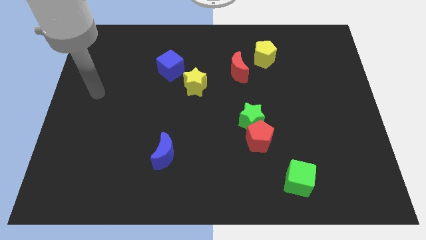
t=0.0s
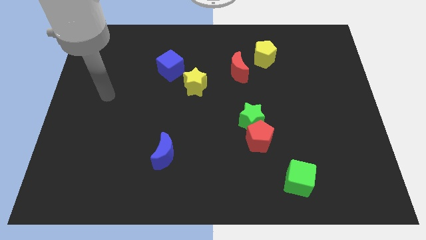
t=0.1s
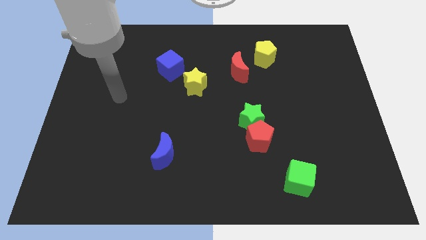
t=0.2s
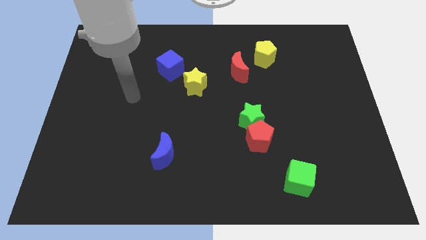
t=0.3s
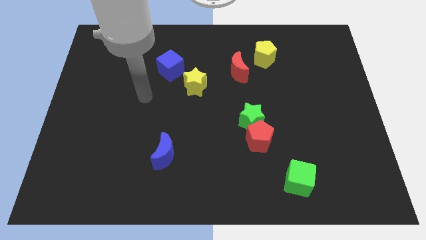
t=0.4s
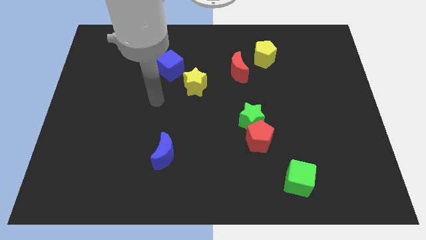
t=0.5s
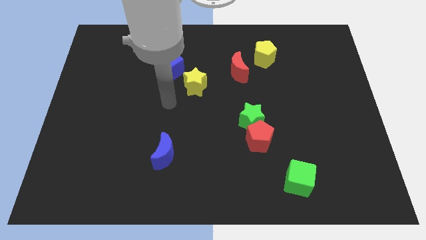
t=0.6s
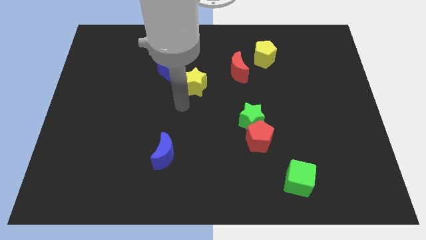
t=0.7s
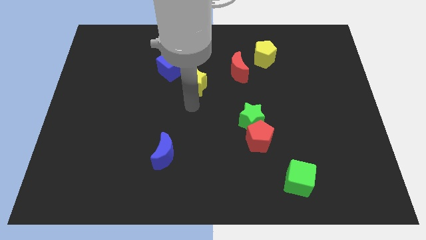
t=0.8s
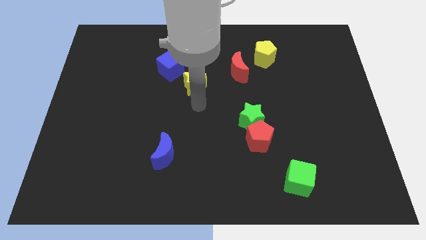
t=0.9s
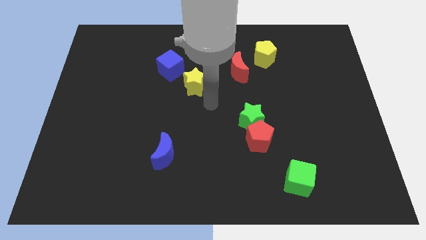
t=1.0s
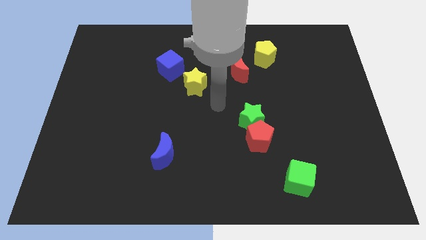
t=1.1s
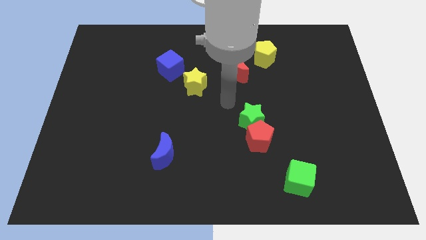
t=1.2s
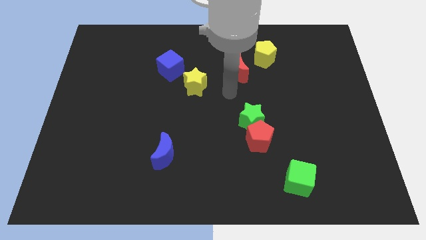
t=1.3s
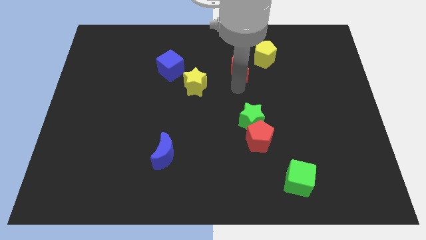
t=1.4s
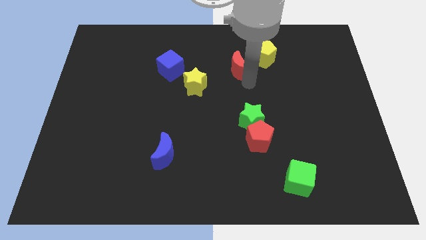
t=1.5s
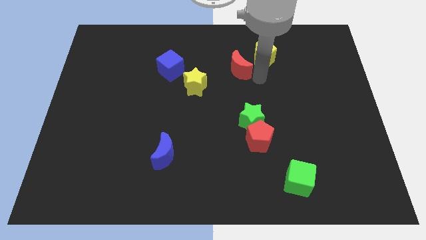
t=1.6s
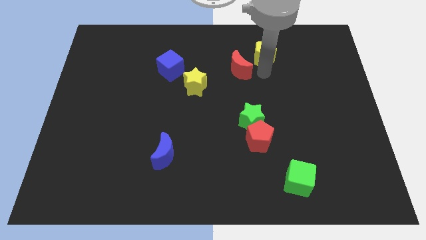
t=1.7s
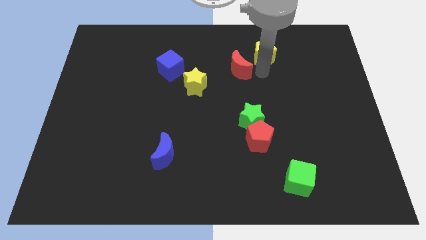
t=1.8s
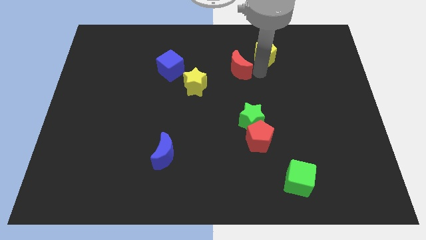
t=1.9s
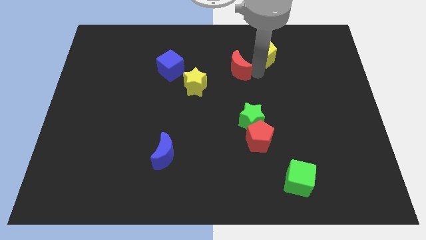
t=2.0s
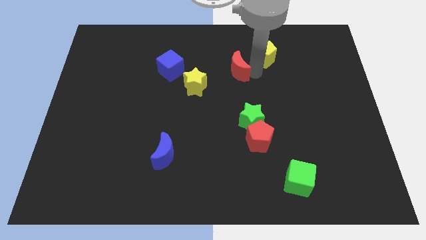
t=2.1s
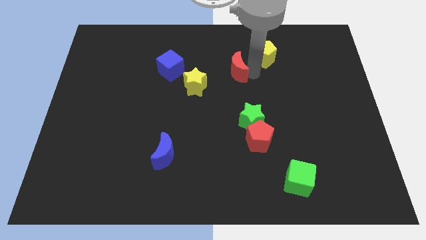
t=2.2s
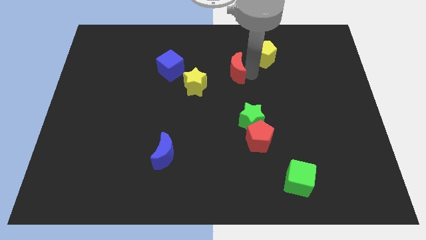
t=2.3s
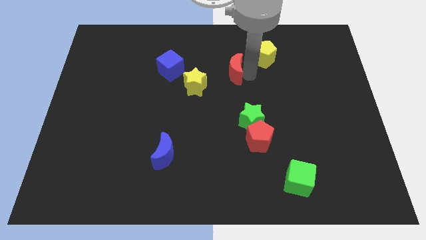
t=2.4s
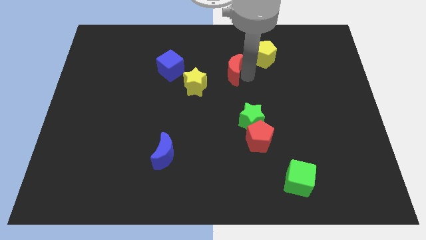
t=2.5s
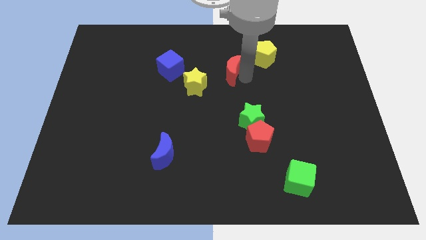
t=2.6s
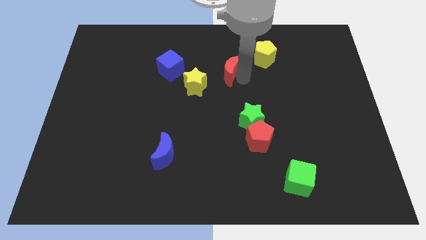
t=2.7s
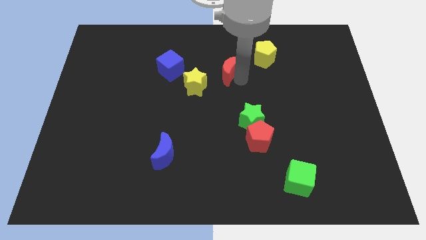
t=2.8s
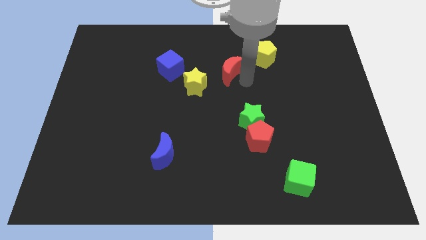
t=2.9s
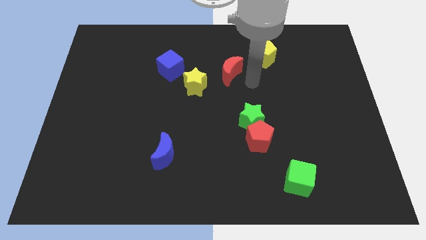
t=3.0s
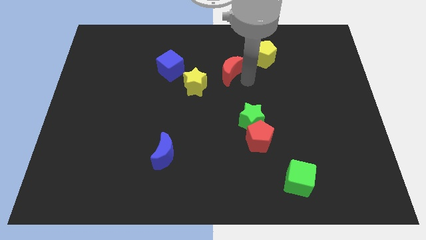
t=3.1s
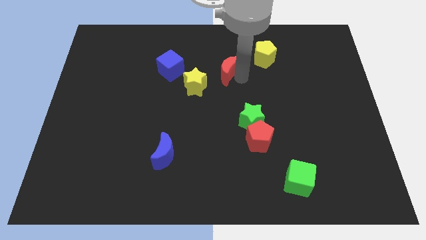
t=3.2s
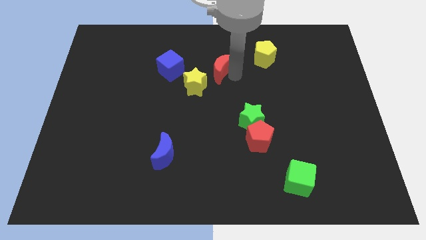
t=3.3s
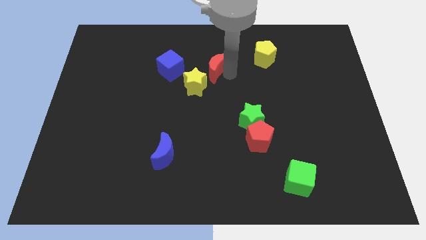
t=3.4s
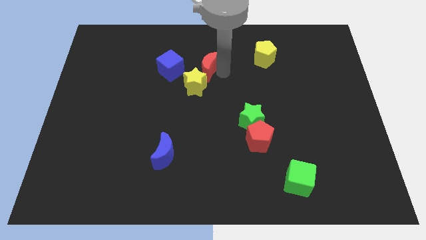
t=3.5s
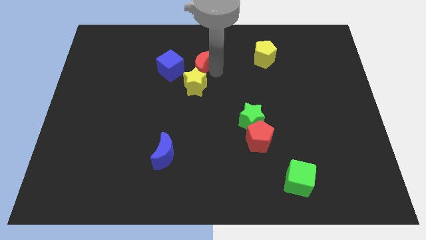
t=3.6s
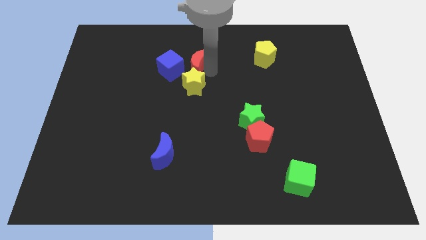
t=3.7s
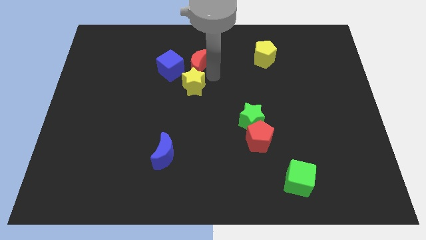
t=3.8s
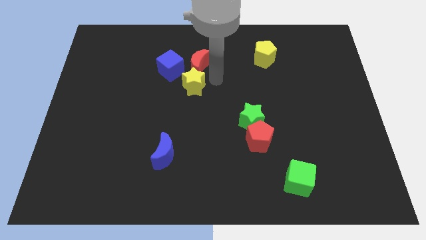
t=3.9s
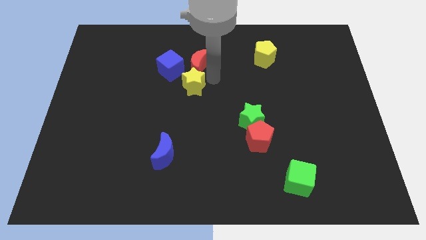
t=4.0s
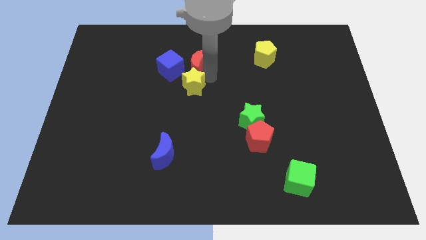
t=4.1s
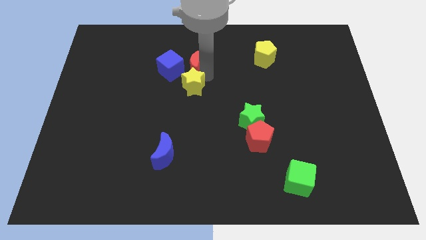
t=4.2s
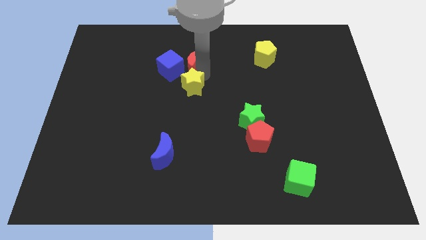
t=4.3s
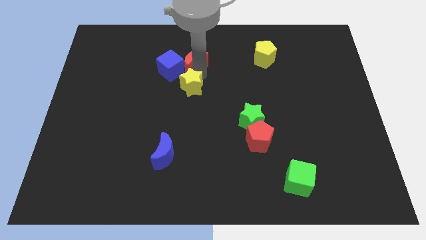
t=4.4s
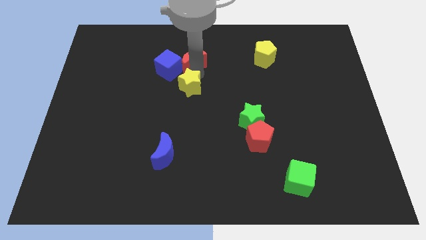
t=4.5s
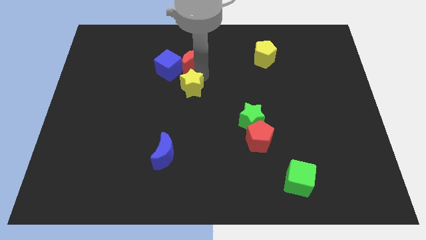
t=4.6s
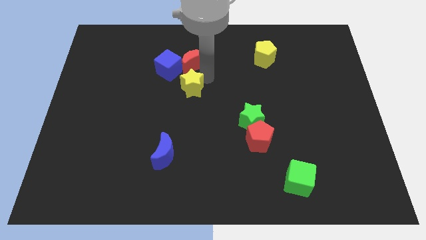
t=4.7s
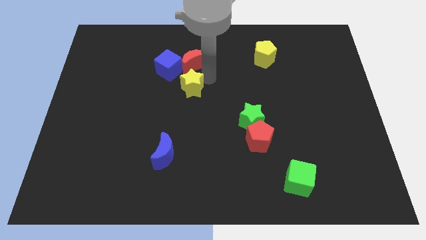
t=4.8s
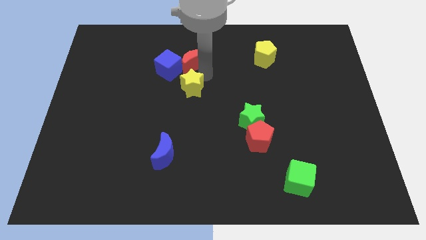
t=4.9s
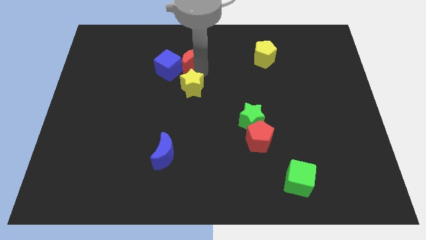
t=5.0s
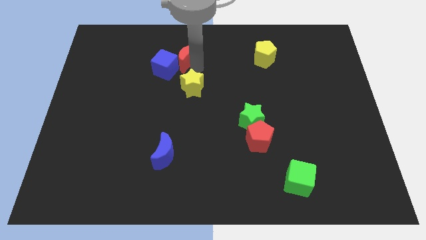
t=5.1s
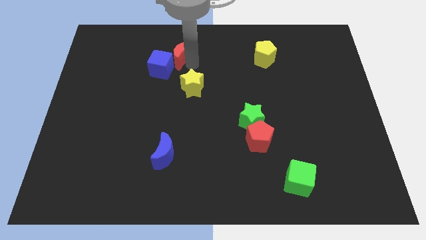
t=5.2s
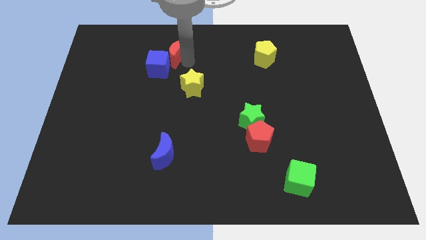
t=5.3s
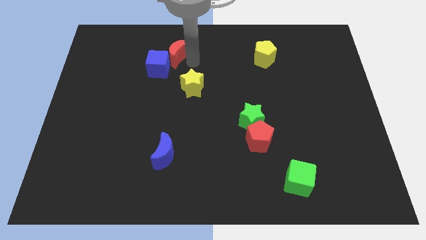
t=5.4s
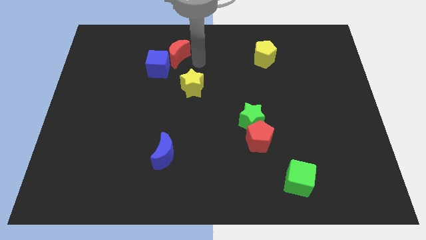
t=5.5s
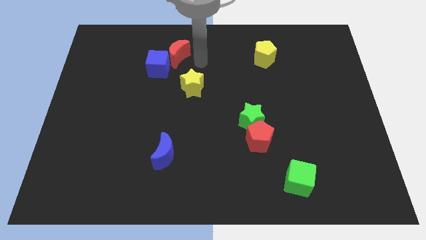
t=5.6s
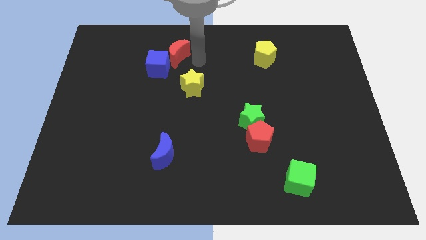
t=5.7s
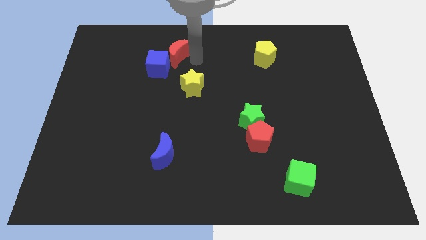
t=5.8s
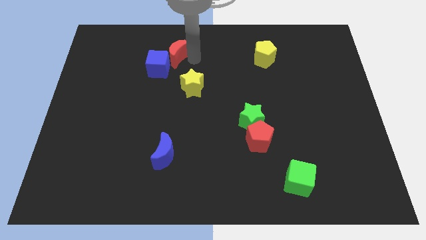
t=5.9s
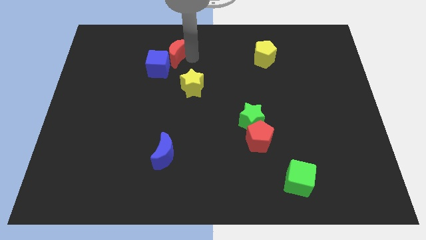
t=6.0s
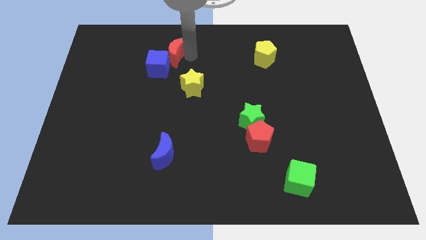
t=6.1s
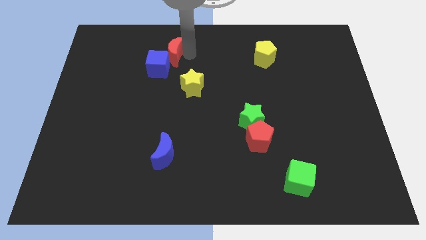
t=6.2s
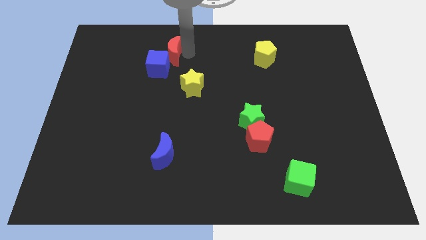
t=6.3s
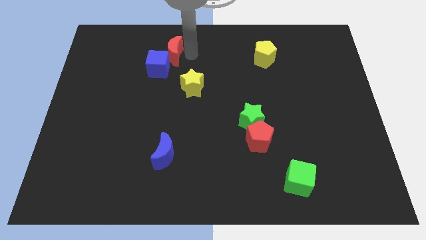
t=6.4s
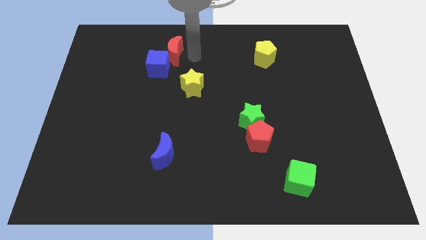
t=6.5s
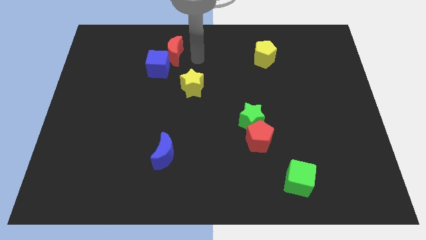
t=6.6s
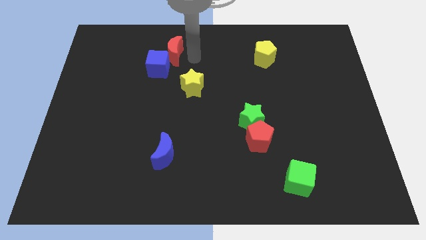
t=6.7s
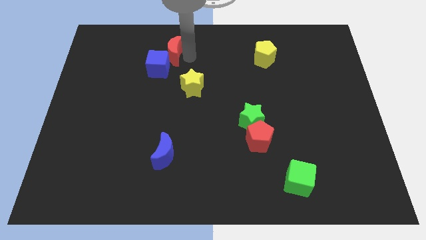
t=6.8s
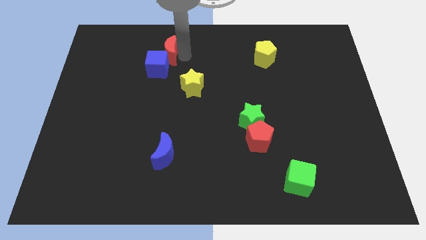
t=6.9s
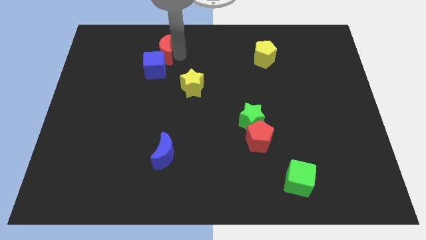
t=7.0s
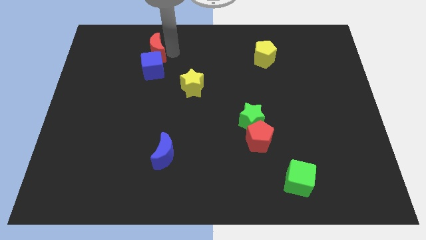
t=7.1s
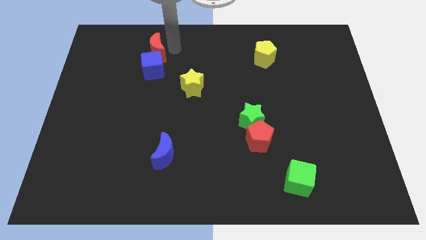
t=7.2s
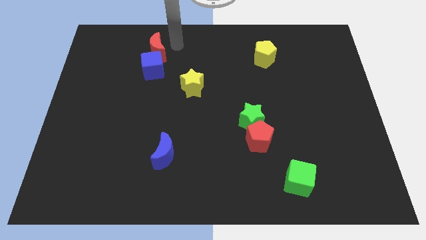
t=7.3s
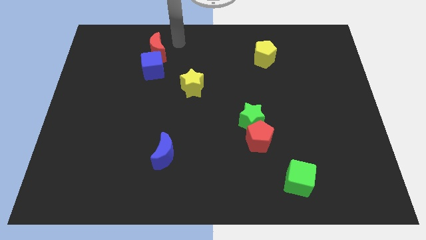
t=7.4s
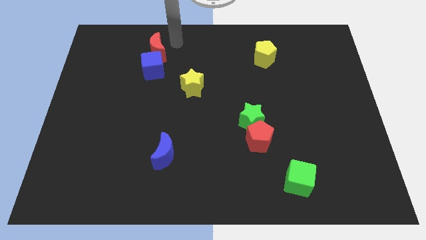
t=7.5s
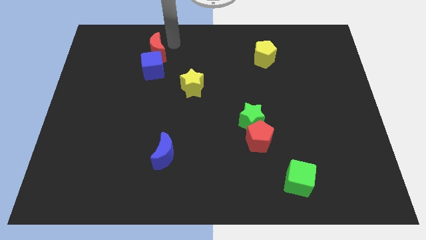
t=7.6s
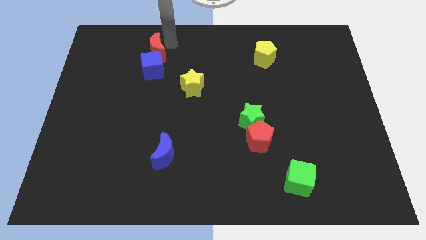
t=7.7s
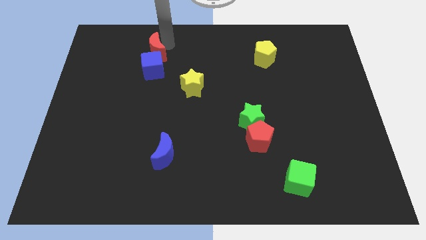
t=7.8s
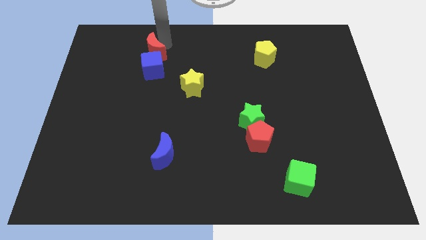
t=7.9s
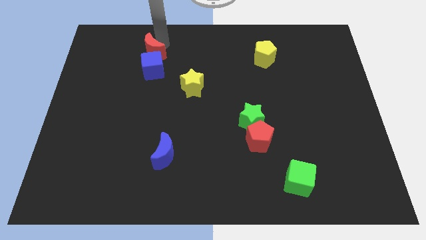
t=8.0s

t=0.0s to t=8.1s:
move the red moon left

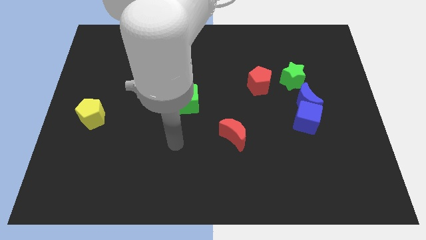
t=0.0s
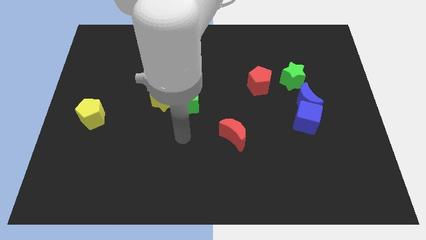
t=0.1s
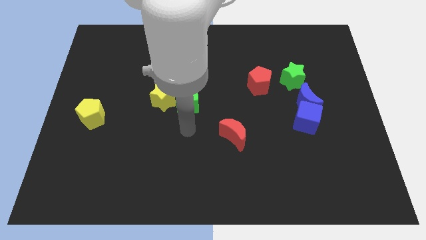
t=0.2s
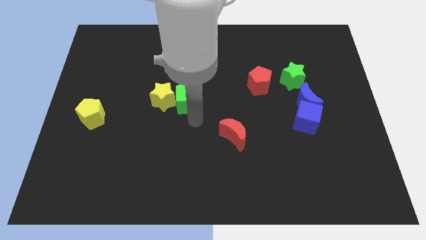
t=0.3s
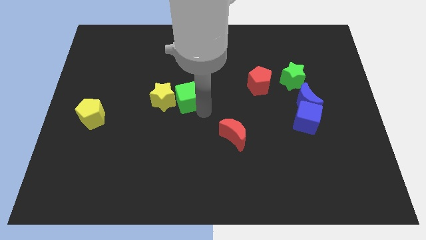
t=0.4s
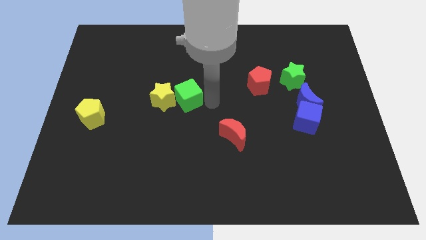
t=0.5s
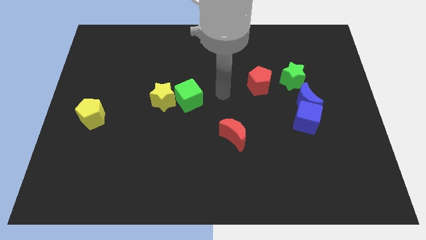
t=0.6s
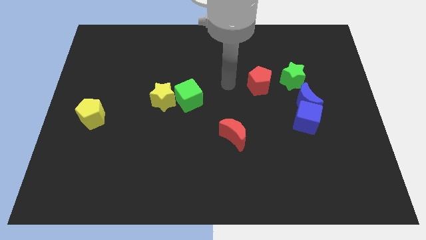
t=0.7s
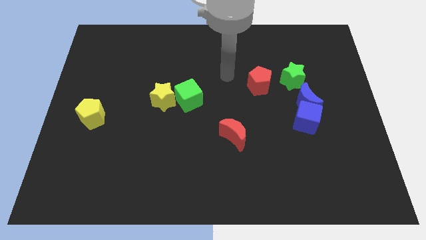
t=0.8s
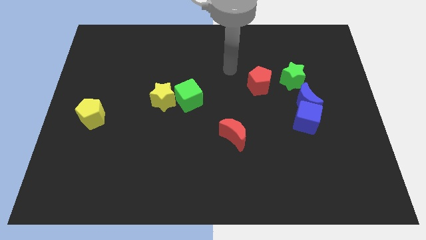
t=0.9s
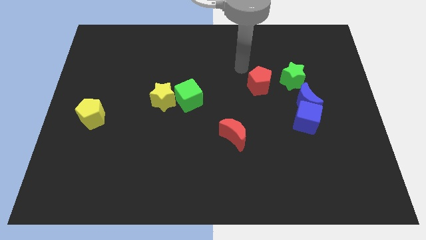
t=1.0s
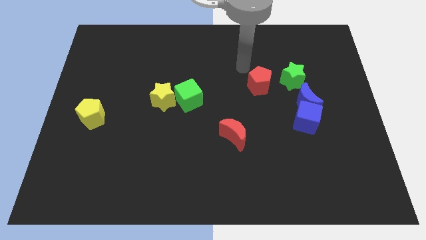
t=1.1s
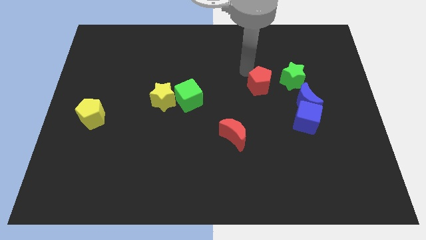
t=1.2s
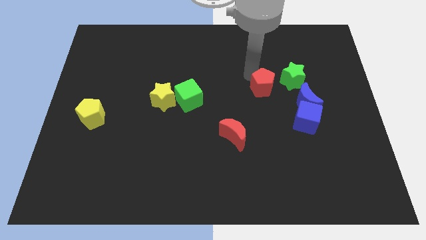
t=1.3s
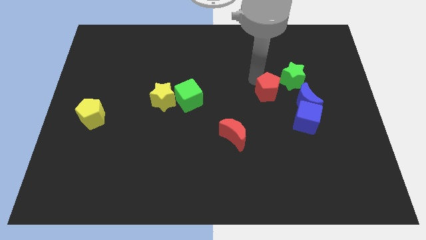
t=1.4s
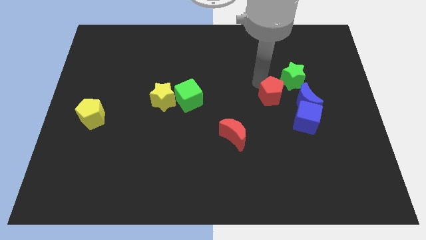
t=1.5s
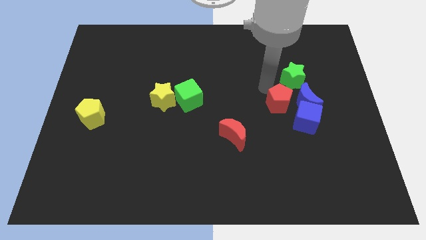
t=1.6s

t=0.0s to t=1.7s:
slightly push the red pentagon downwards and to the right
